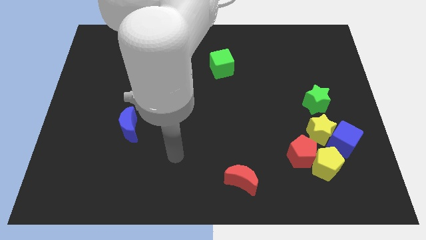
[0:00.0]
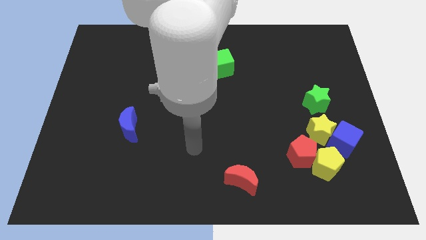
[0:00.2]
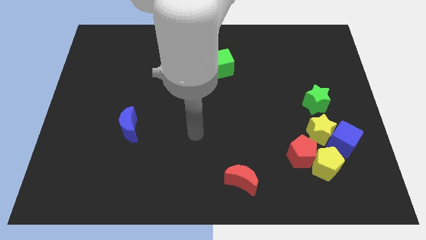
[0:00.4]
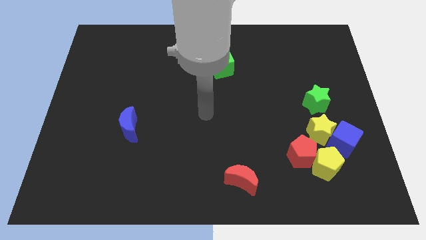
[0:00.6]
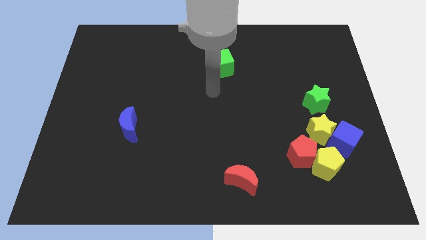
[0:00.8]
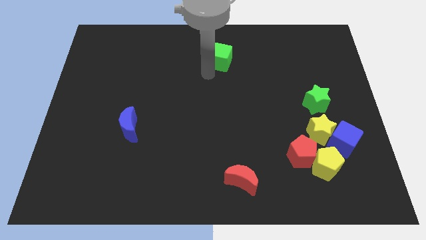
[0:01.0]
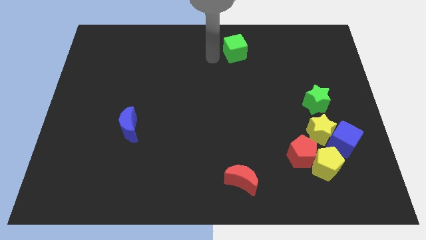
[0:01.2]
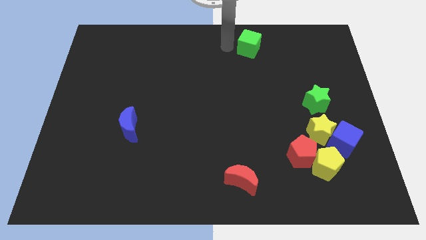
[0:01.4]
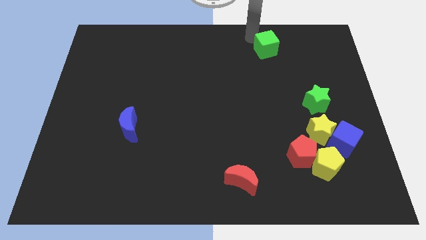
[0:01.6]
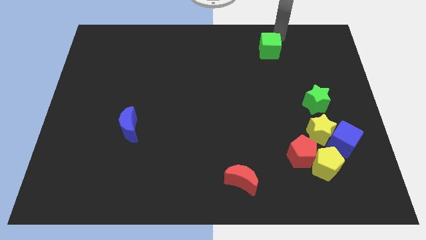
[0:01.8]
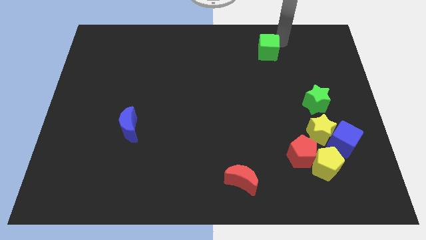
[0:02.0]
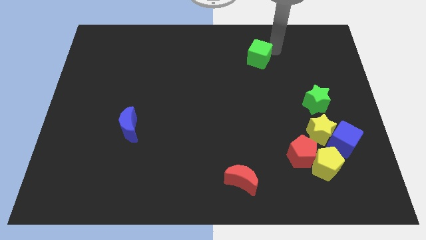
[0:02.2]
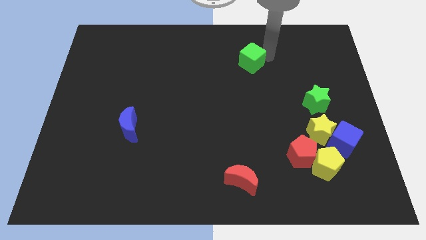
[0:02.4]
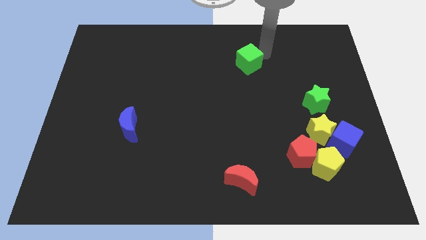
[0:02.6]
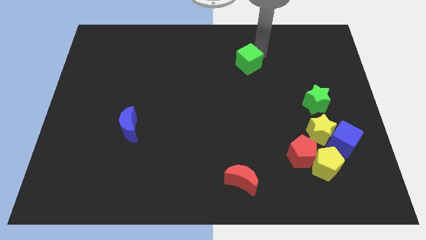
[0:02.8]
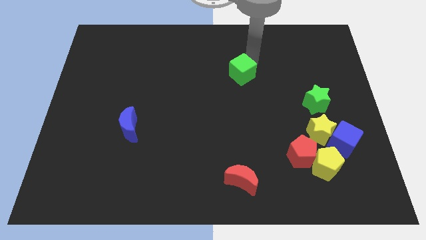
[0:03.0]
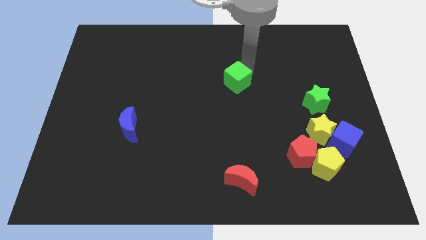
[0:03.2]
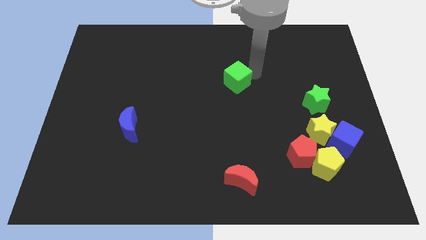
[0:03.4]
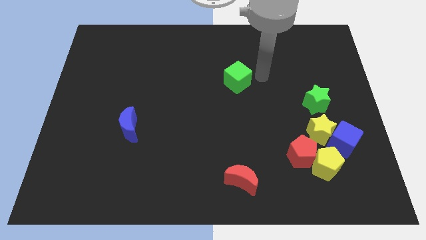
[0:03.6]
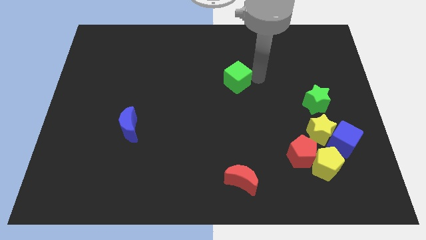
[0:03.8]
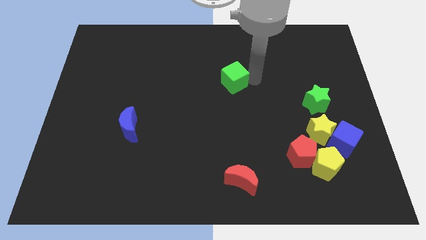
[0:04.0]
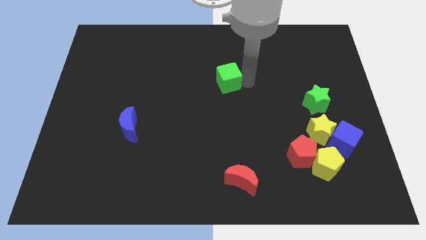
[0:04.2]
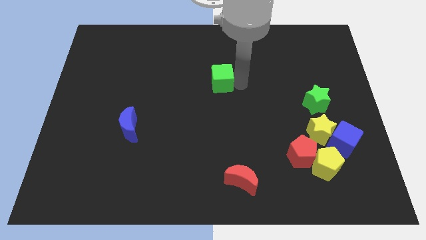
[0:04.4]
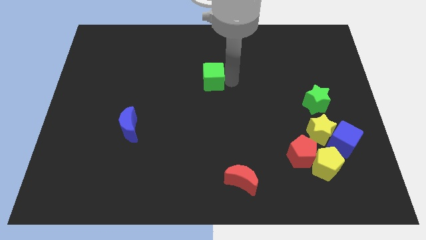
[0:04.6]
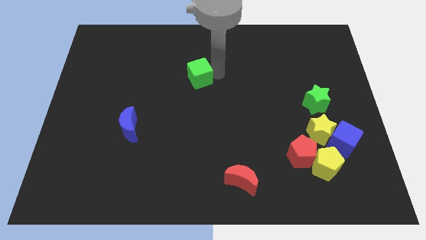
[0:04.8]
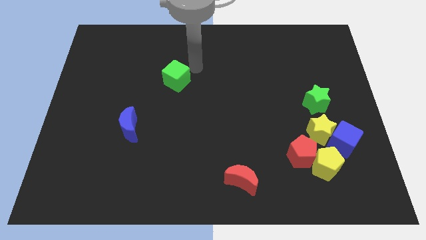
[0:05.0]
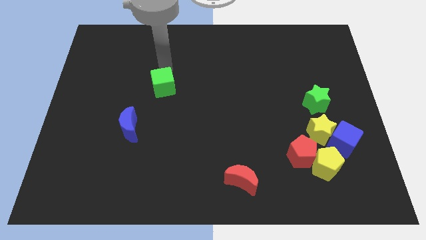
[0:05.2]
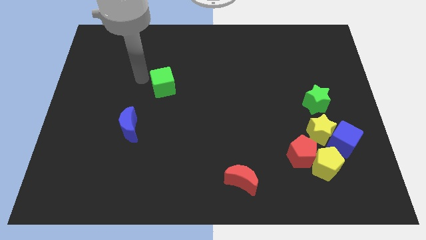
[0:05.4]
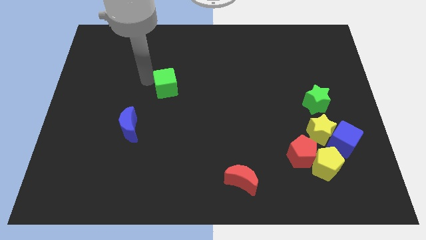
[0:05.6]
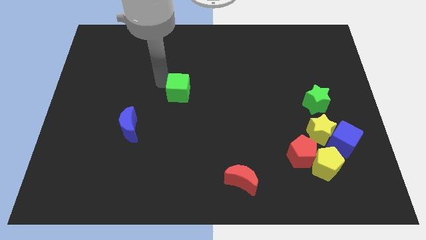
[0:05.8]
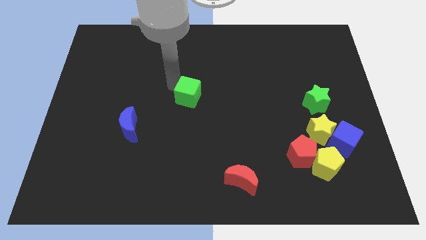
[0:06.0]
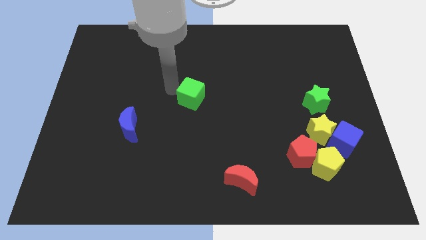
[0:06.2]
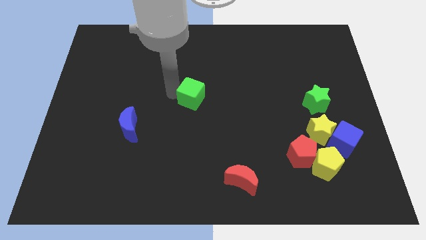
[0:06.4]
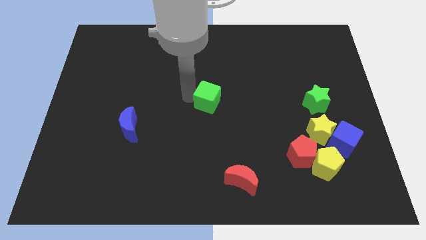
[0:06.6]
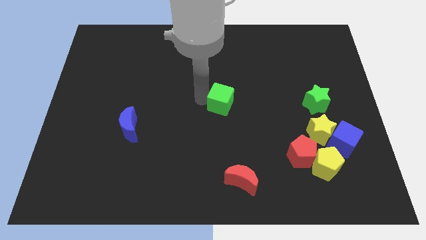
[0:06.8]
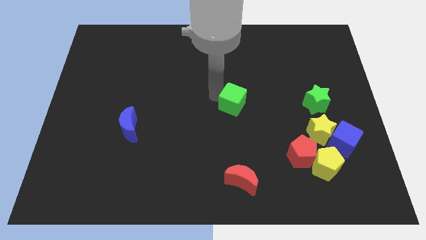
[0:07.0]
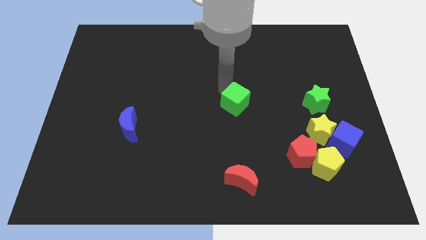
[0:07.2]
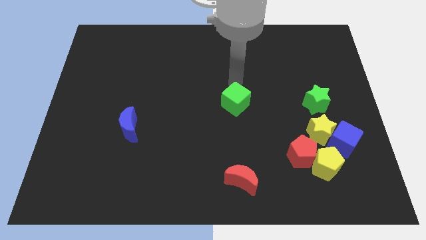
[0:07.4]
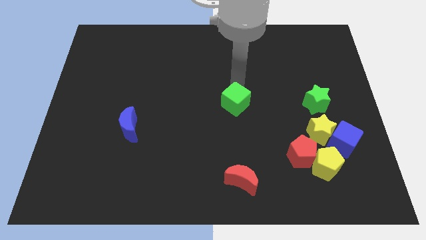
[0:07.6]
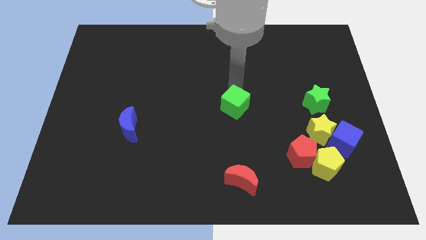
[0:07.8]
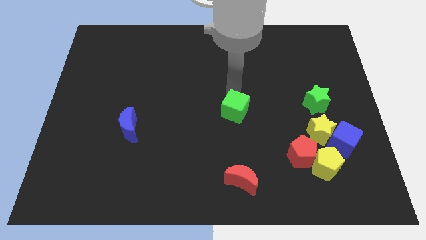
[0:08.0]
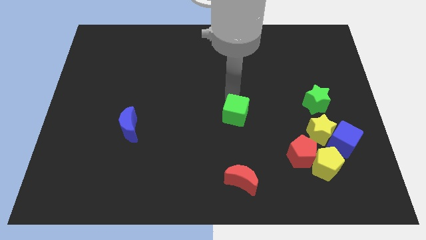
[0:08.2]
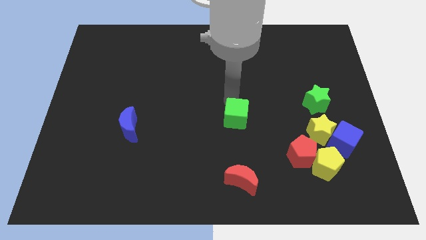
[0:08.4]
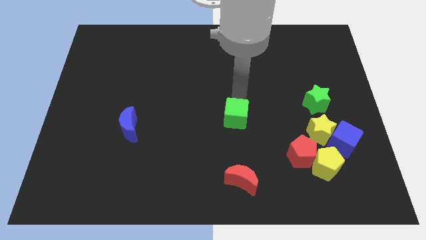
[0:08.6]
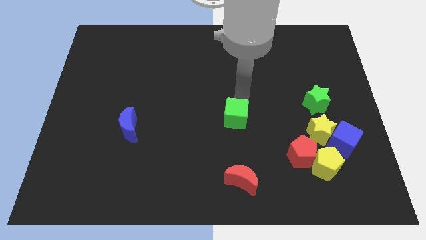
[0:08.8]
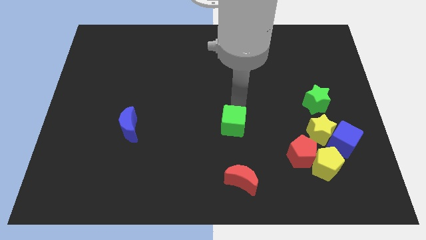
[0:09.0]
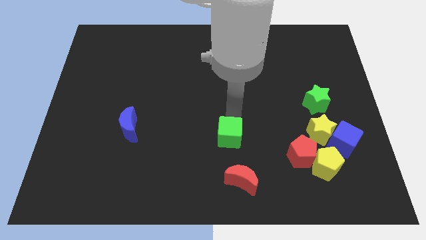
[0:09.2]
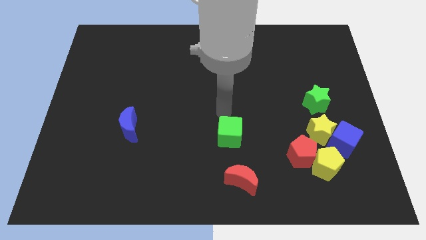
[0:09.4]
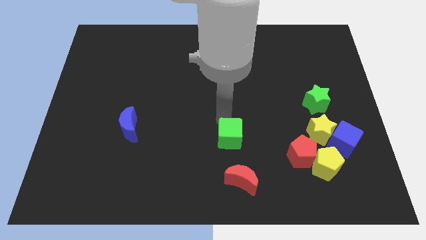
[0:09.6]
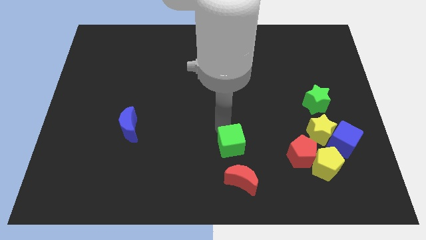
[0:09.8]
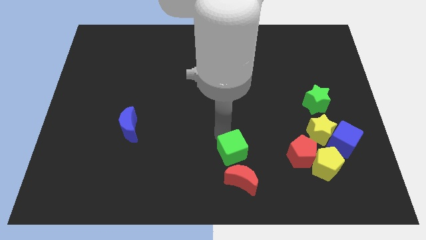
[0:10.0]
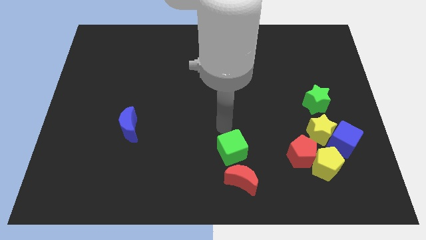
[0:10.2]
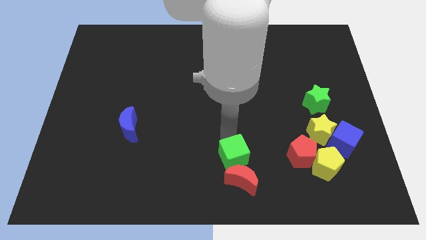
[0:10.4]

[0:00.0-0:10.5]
move the green cube close to the red moon

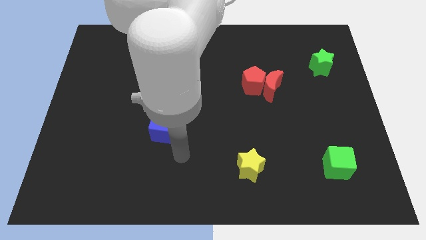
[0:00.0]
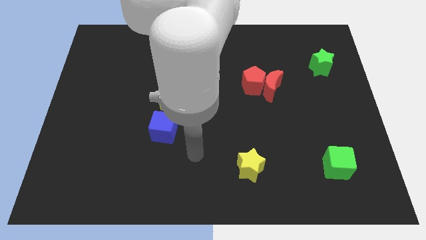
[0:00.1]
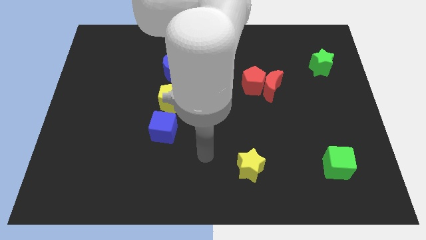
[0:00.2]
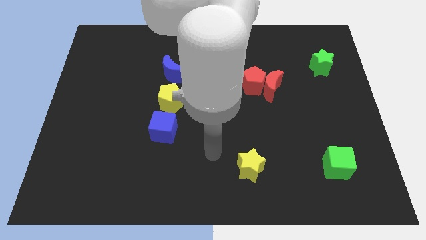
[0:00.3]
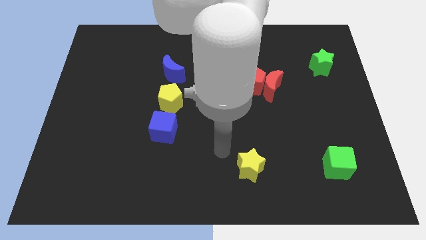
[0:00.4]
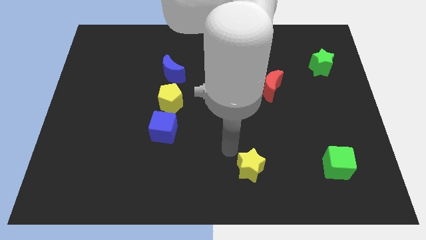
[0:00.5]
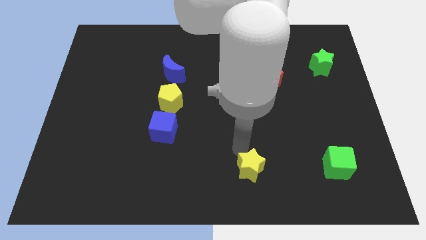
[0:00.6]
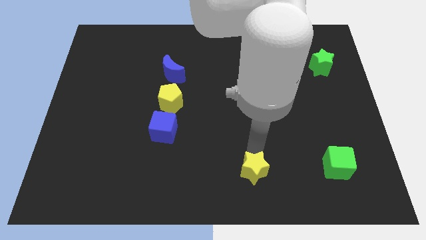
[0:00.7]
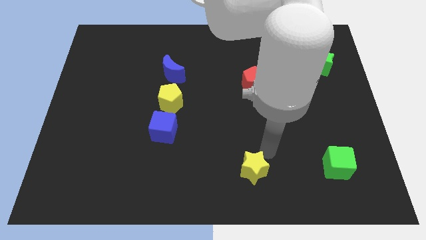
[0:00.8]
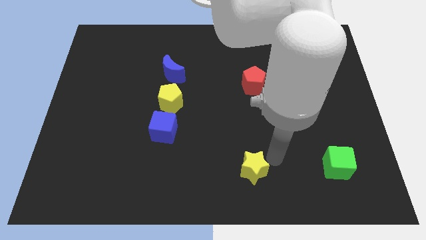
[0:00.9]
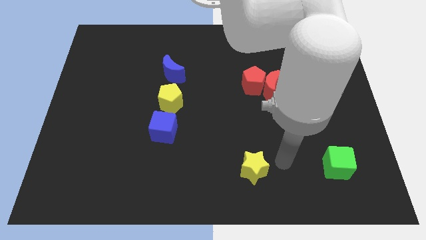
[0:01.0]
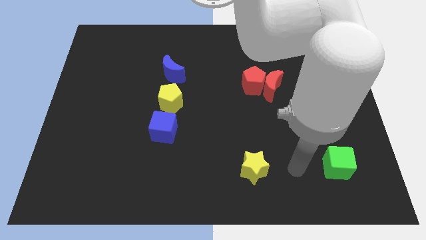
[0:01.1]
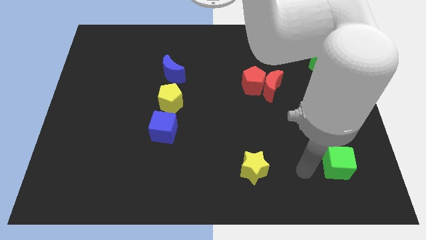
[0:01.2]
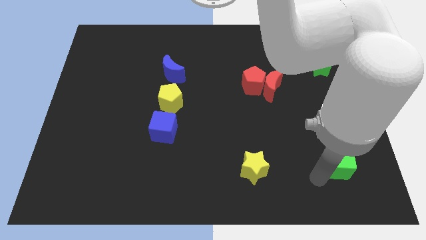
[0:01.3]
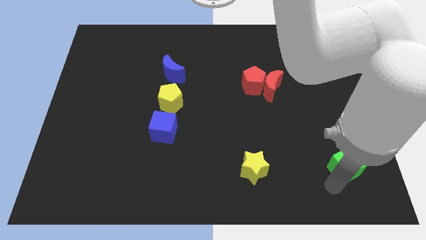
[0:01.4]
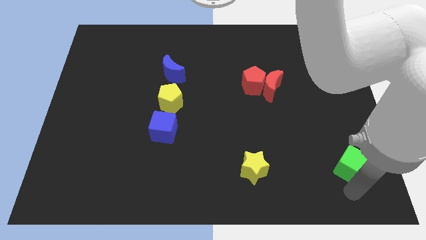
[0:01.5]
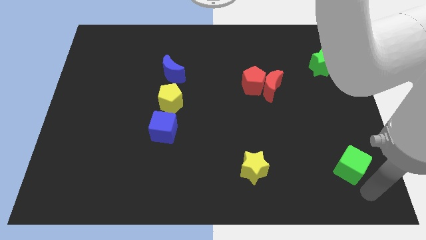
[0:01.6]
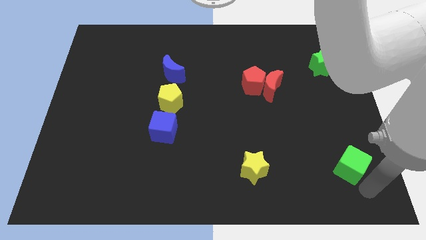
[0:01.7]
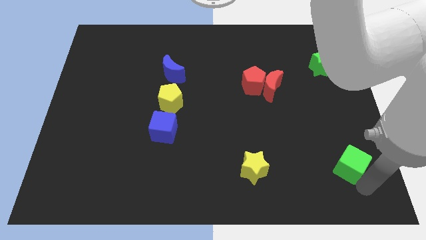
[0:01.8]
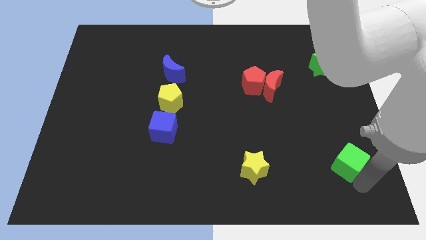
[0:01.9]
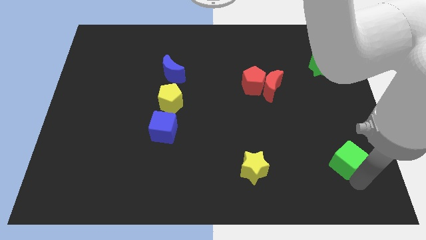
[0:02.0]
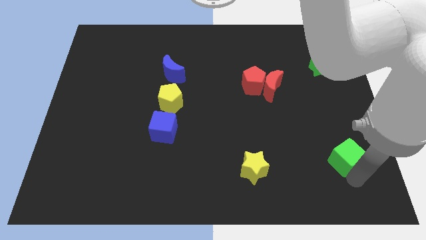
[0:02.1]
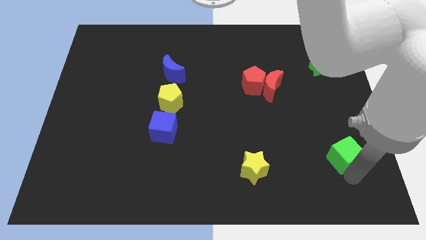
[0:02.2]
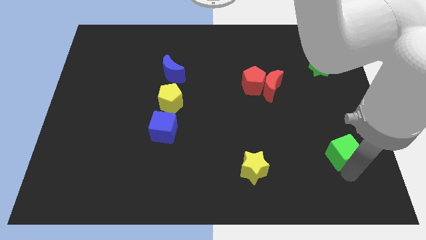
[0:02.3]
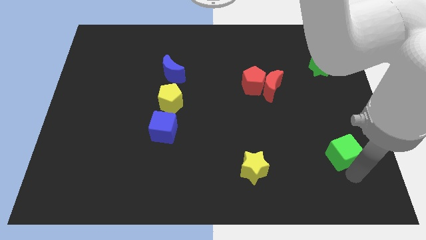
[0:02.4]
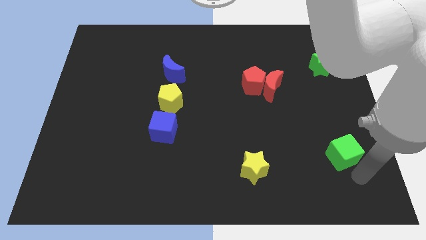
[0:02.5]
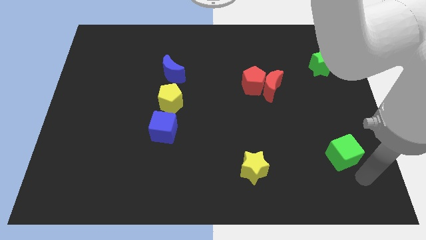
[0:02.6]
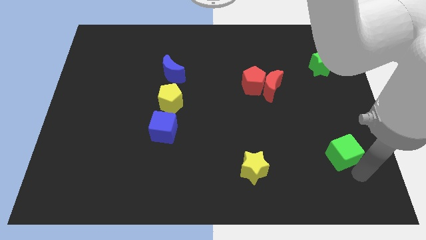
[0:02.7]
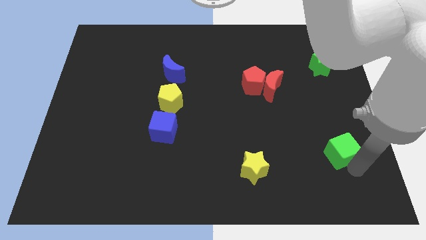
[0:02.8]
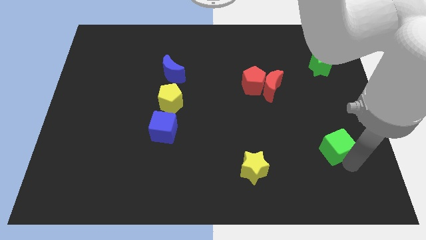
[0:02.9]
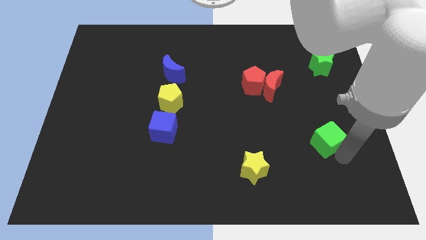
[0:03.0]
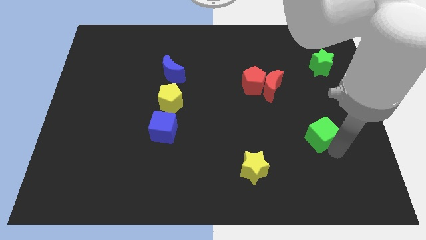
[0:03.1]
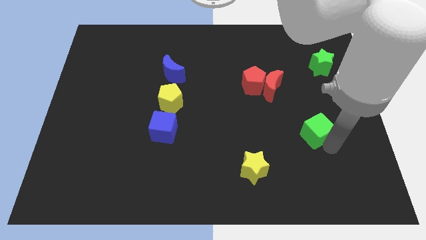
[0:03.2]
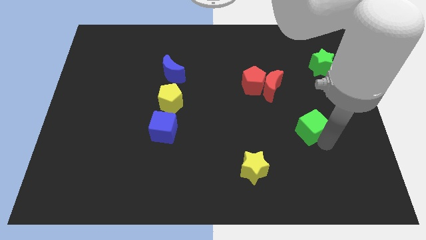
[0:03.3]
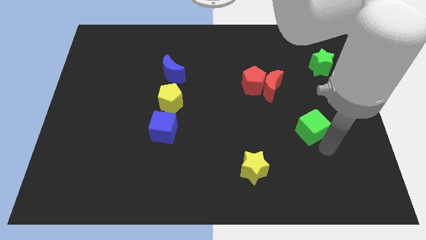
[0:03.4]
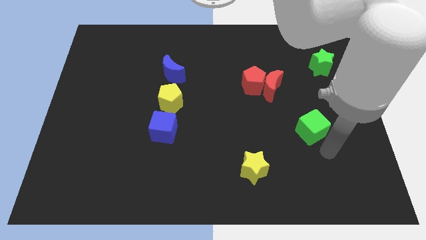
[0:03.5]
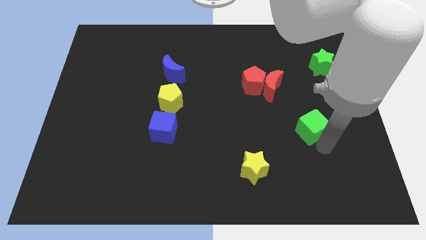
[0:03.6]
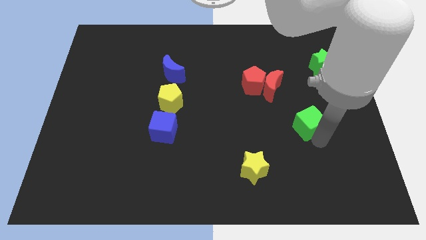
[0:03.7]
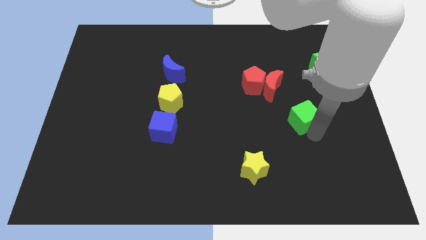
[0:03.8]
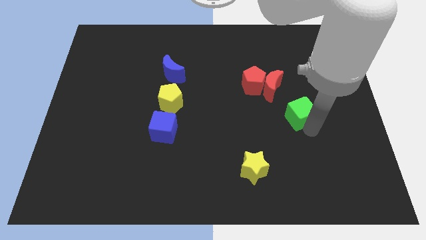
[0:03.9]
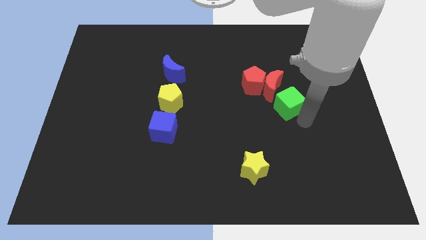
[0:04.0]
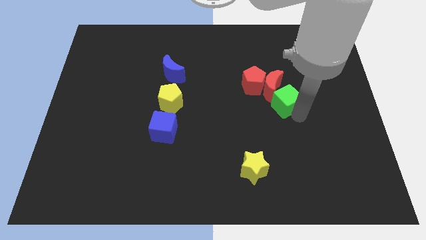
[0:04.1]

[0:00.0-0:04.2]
put the green cube towards the red moon
